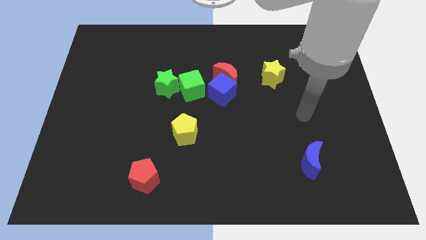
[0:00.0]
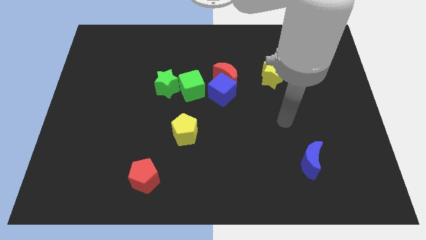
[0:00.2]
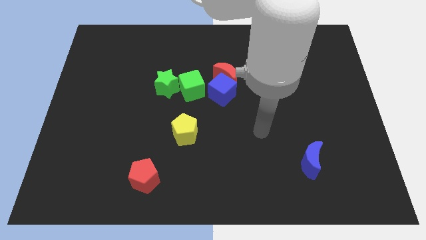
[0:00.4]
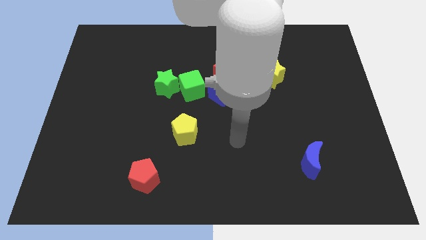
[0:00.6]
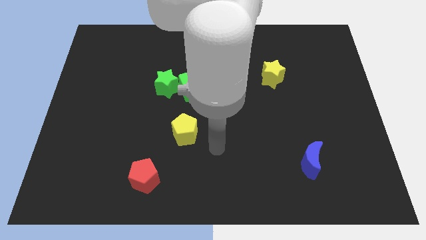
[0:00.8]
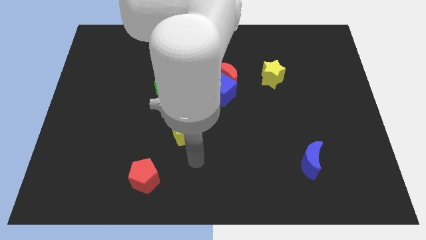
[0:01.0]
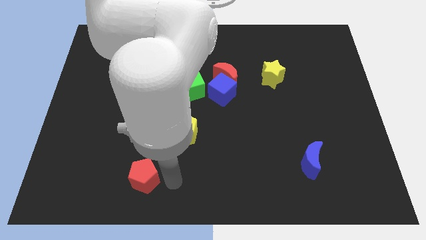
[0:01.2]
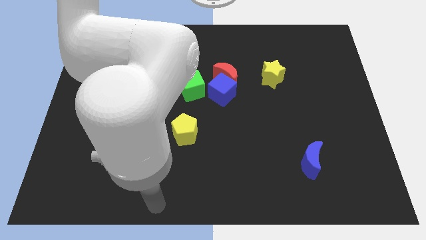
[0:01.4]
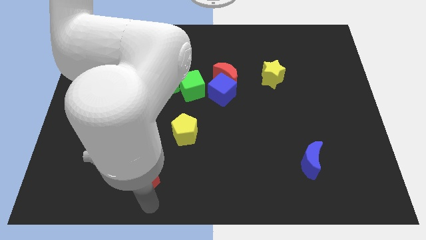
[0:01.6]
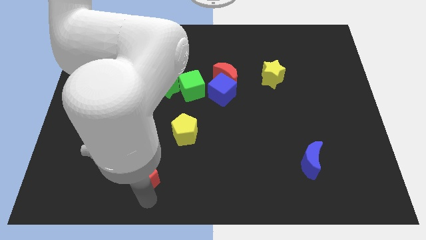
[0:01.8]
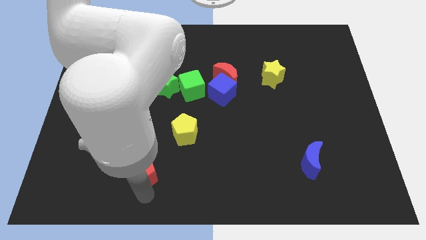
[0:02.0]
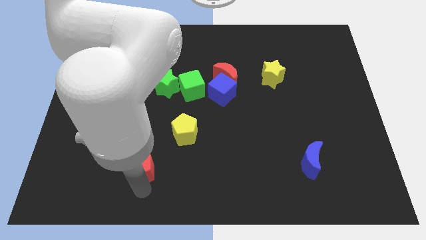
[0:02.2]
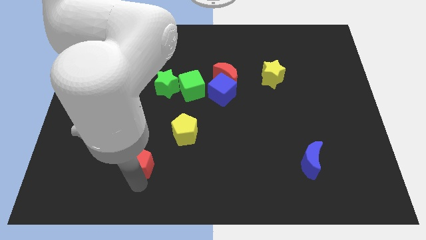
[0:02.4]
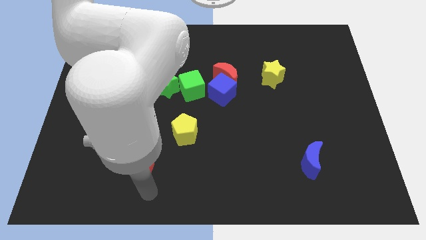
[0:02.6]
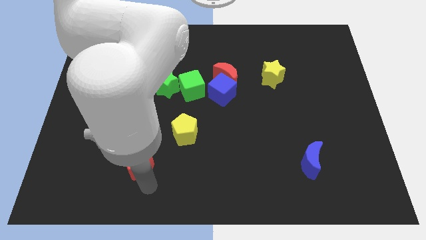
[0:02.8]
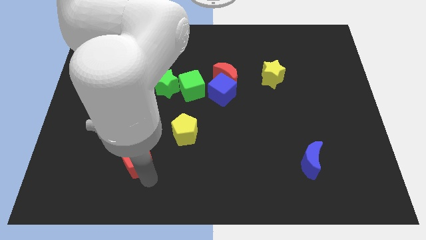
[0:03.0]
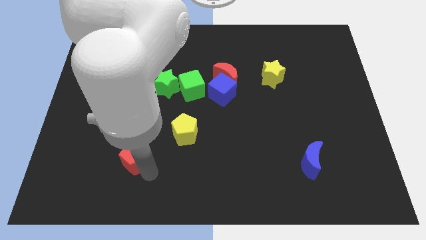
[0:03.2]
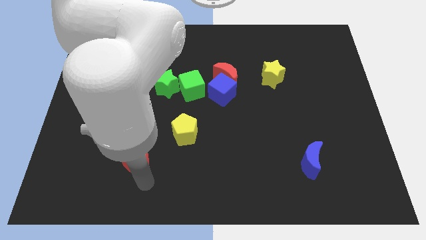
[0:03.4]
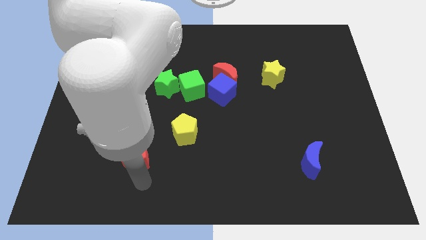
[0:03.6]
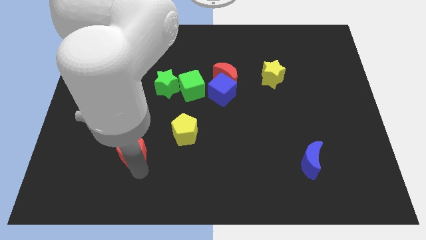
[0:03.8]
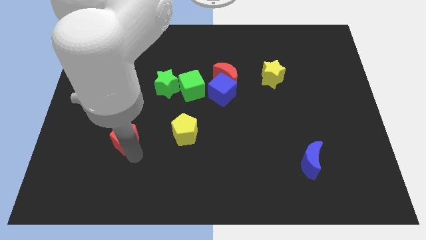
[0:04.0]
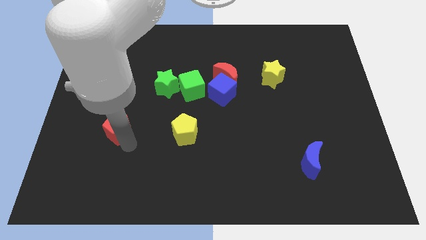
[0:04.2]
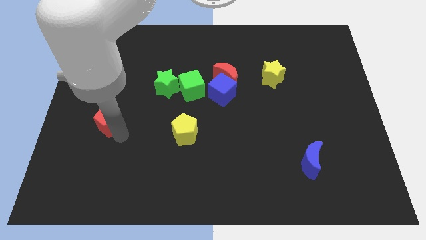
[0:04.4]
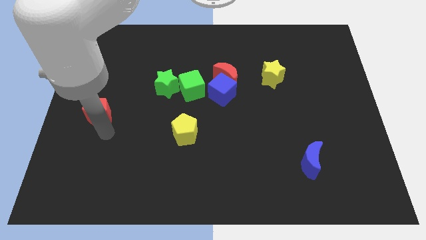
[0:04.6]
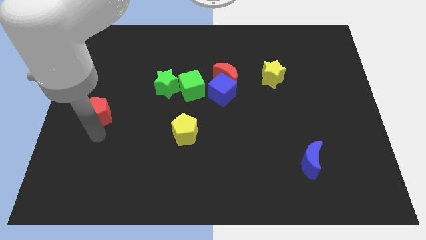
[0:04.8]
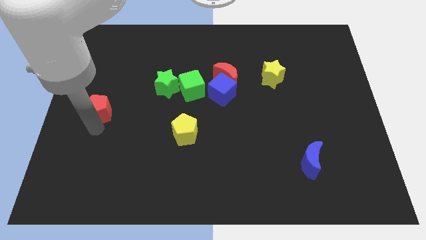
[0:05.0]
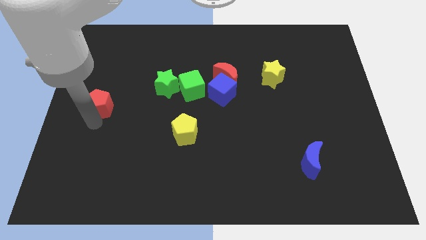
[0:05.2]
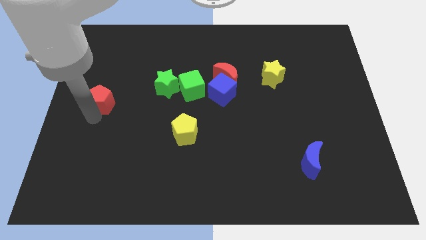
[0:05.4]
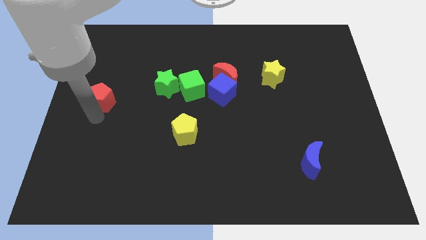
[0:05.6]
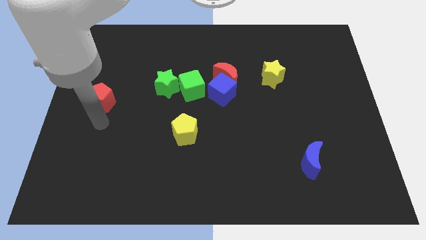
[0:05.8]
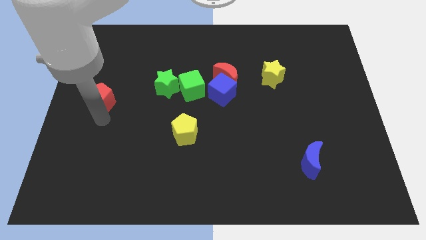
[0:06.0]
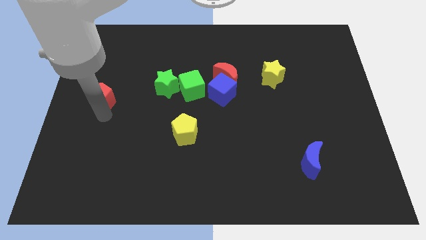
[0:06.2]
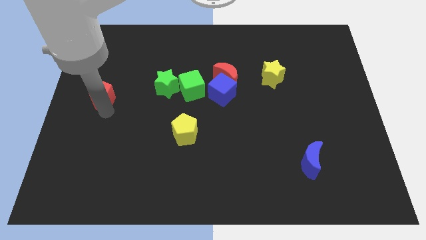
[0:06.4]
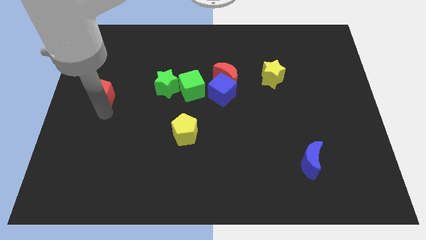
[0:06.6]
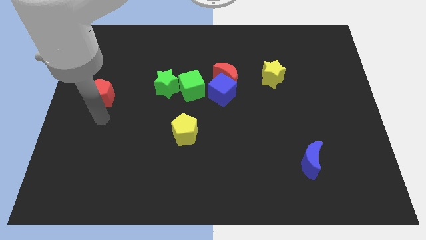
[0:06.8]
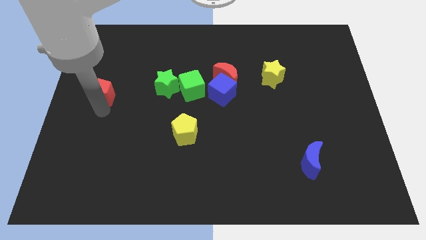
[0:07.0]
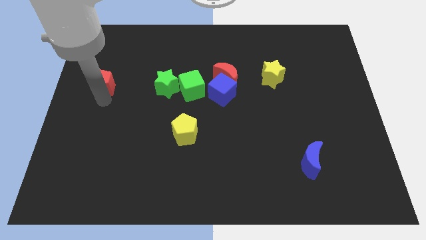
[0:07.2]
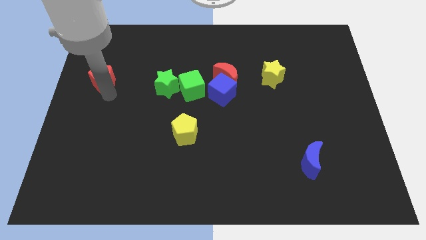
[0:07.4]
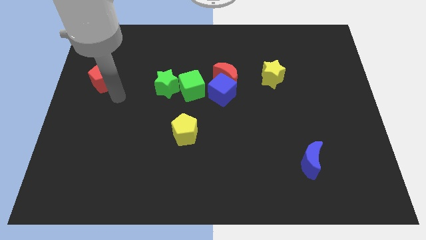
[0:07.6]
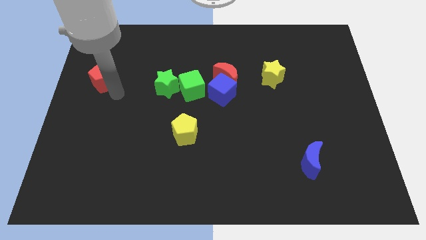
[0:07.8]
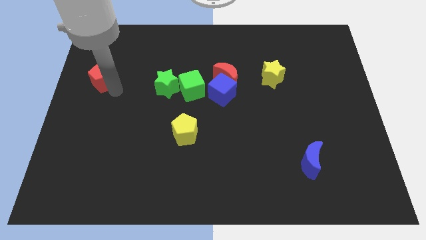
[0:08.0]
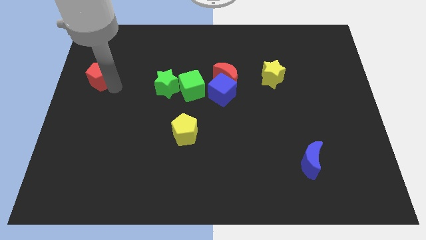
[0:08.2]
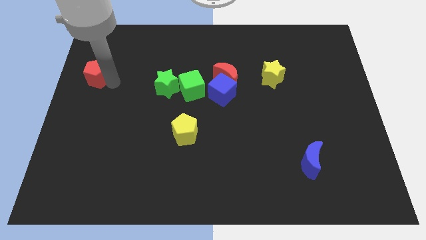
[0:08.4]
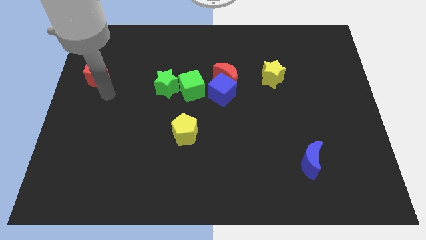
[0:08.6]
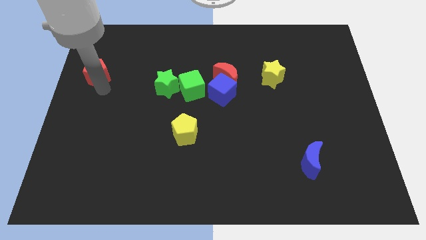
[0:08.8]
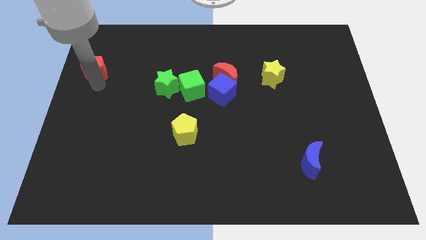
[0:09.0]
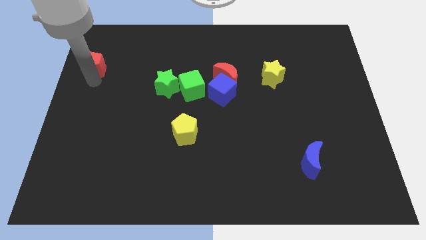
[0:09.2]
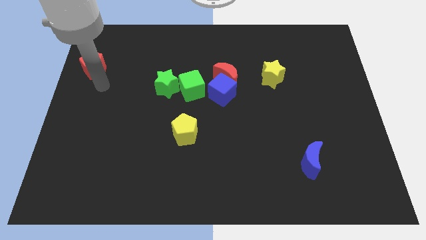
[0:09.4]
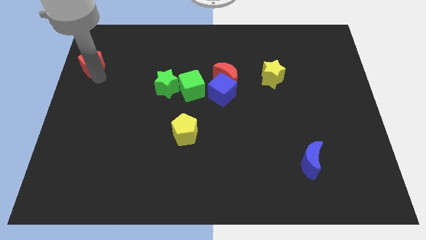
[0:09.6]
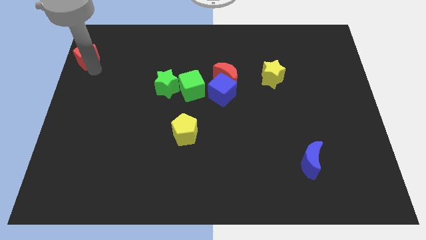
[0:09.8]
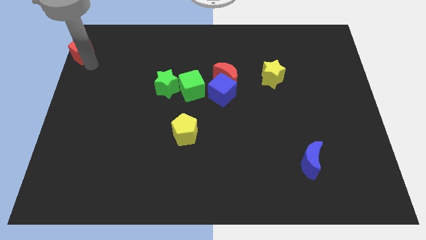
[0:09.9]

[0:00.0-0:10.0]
move the red pentagon to the upper left corner
